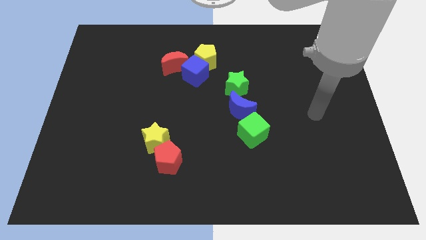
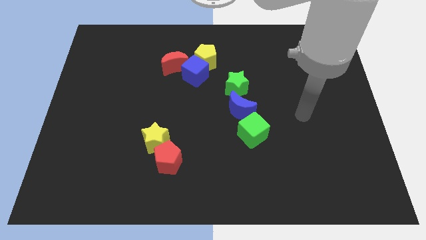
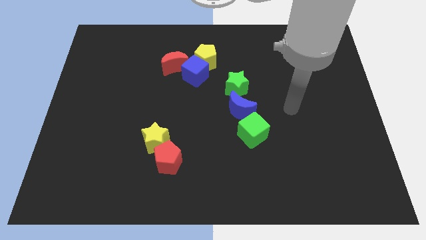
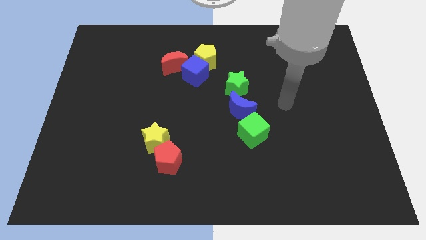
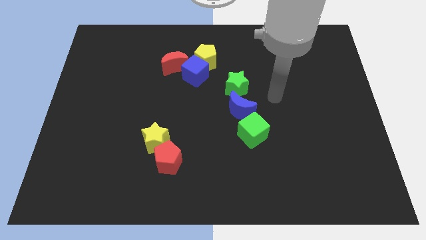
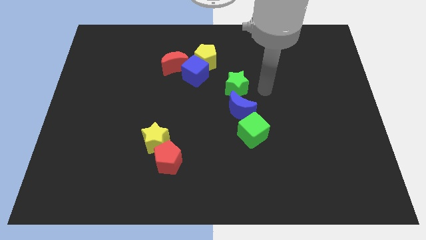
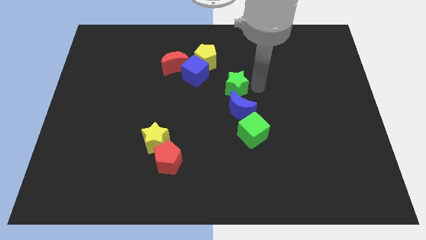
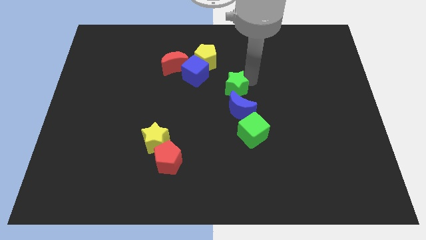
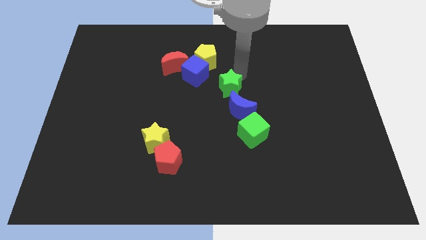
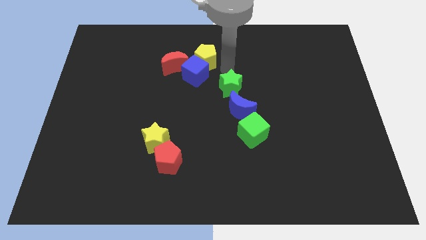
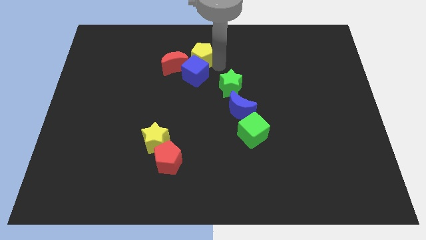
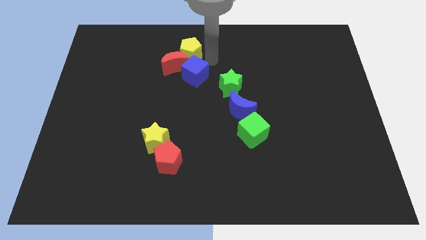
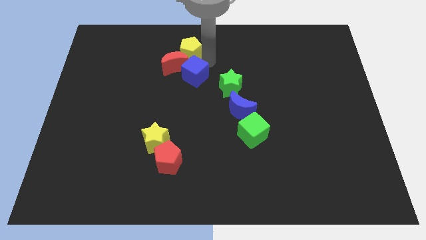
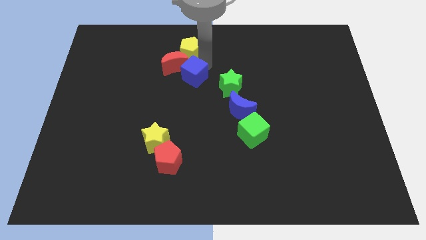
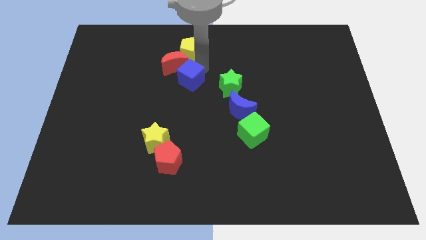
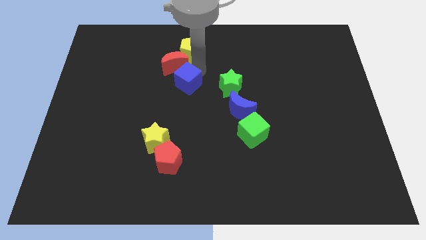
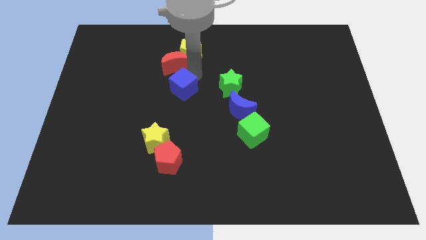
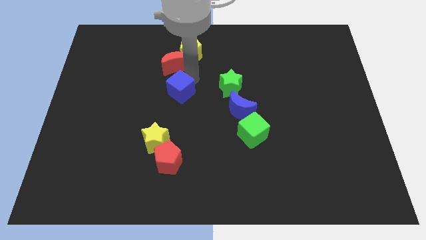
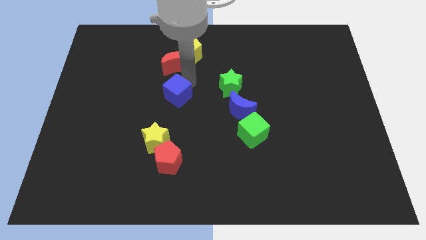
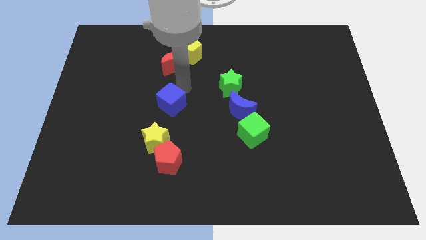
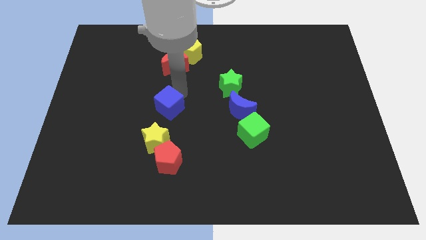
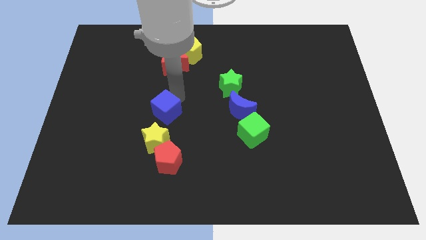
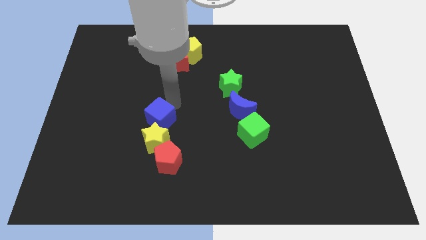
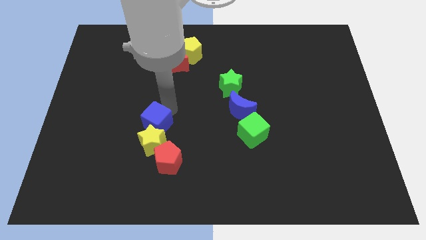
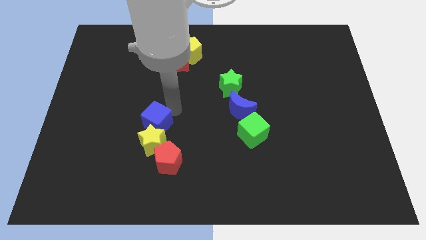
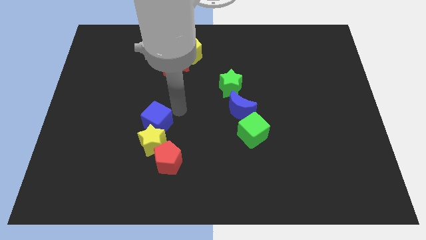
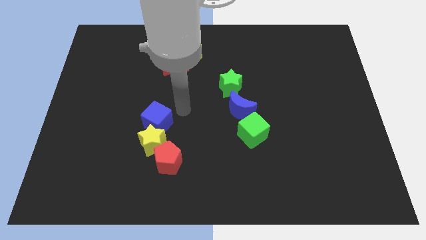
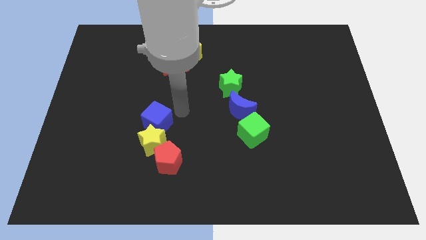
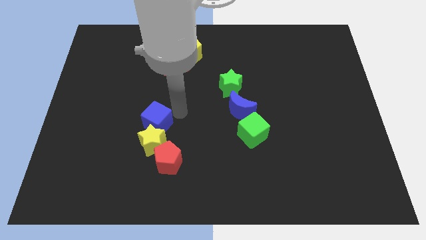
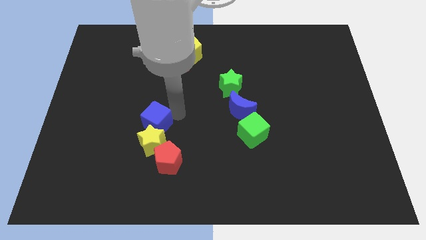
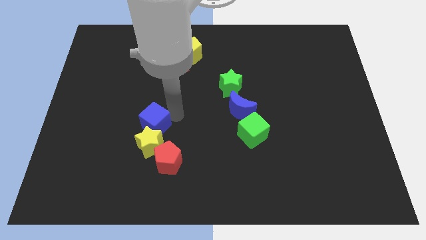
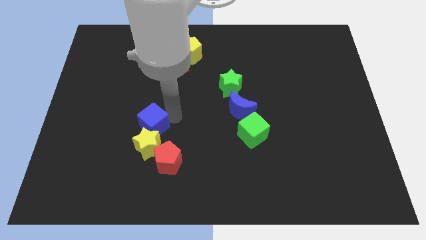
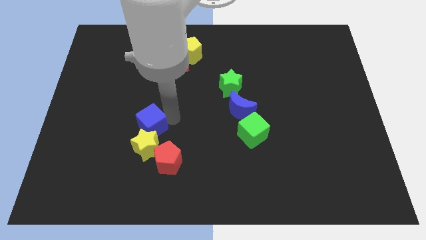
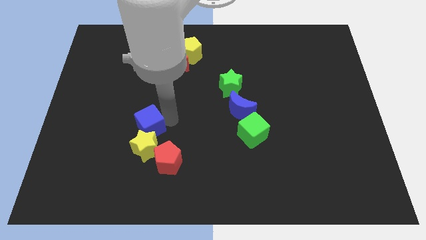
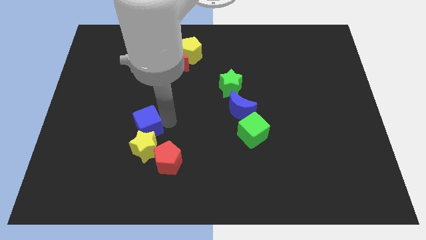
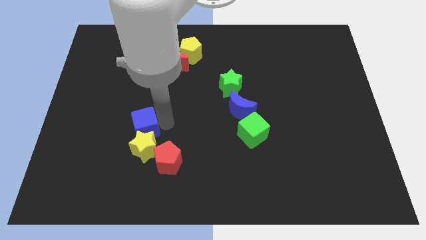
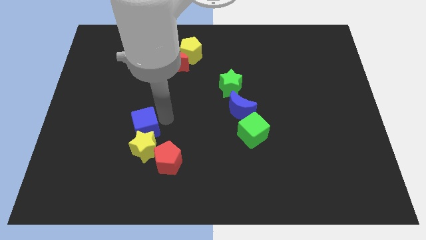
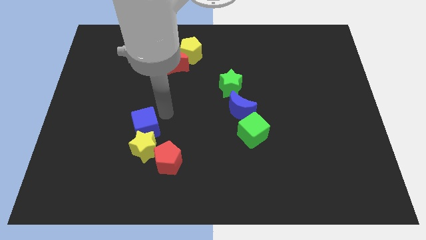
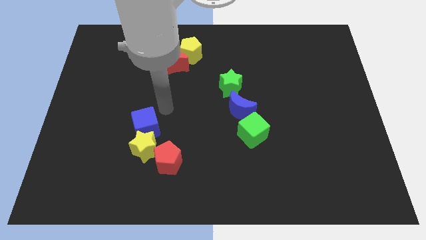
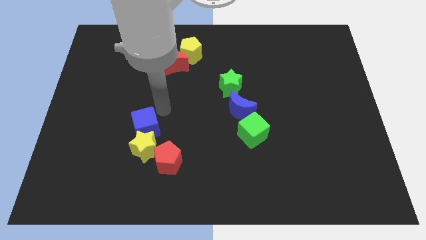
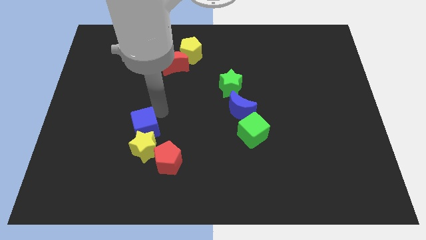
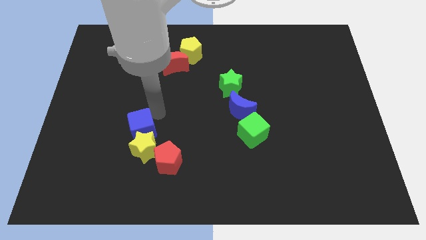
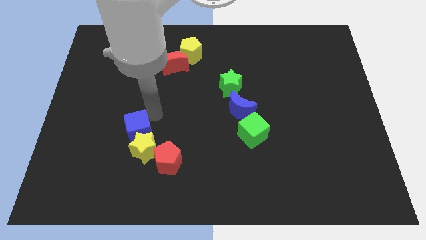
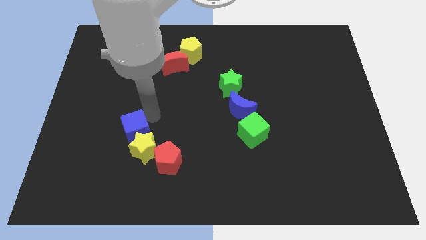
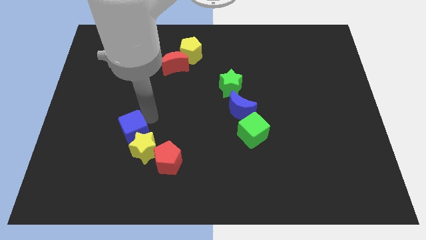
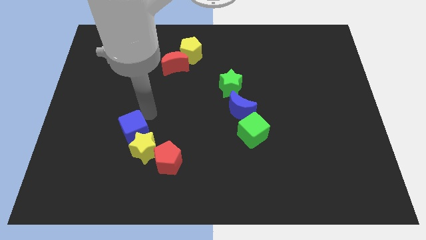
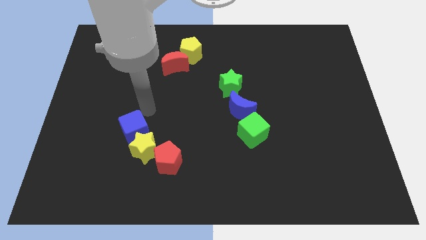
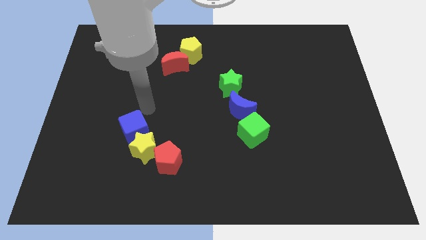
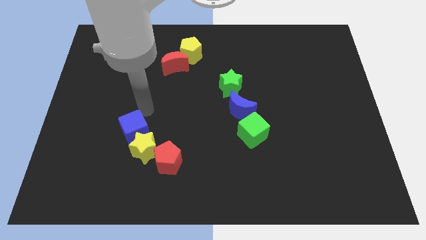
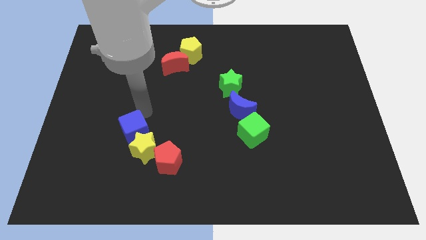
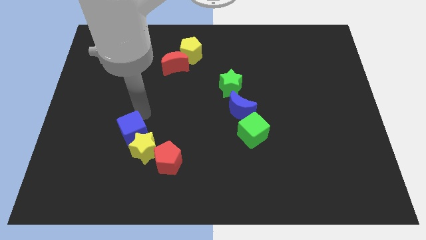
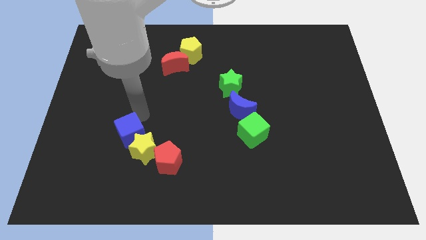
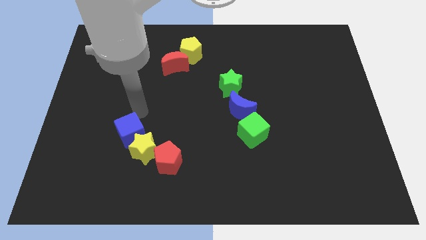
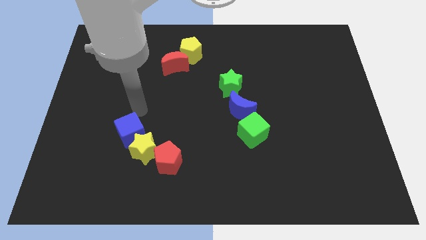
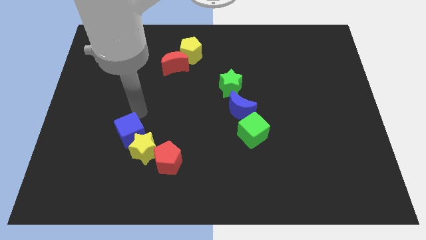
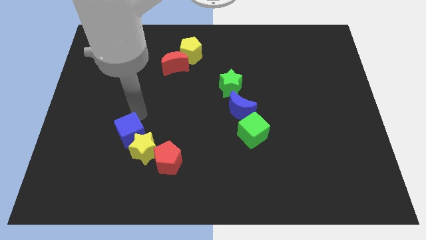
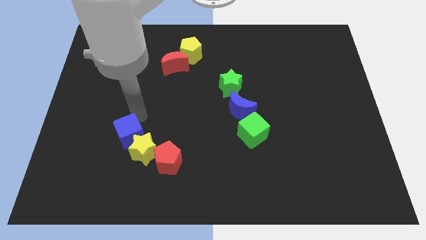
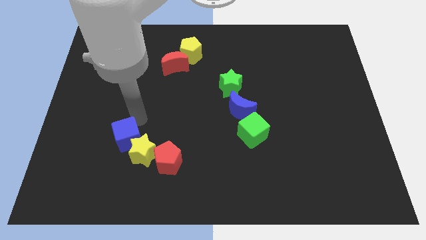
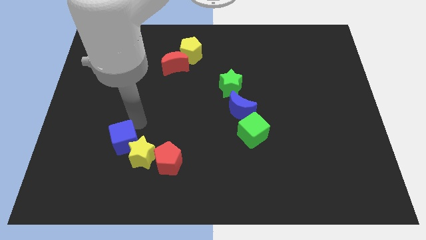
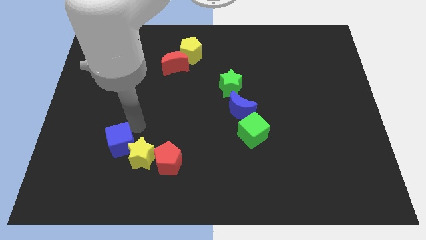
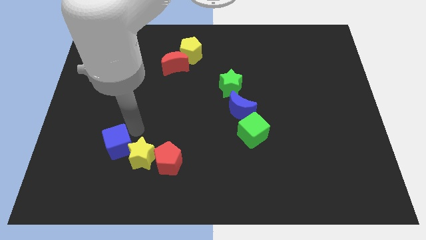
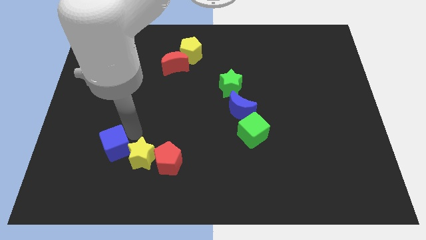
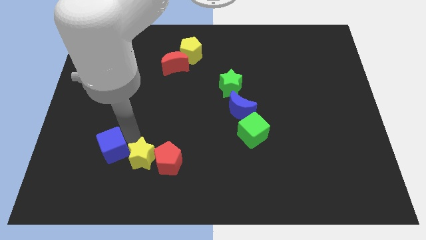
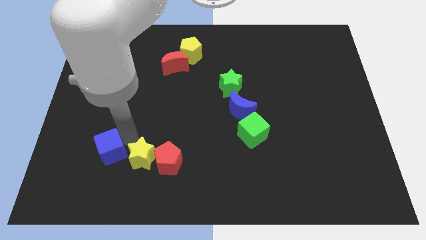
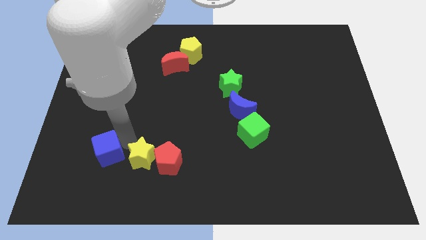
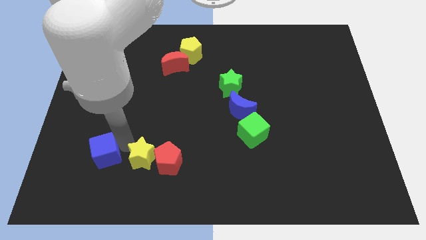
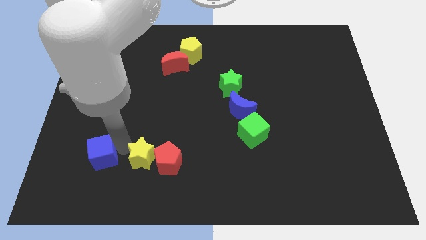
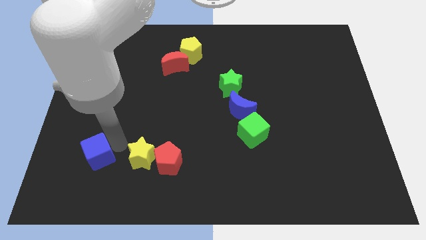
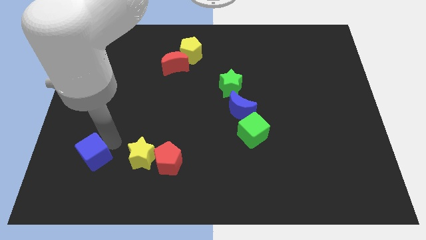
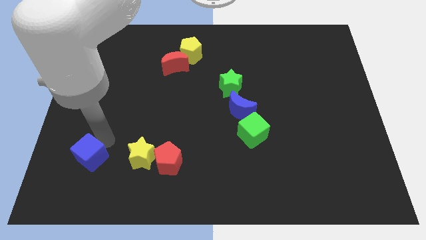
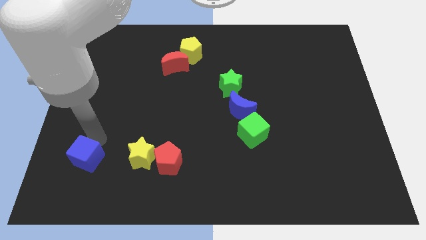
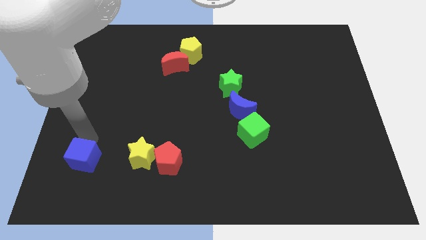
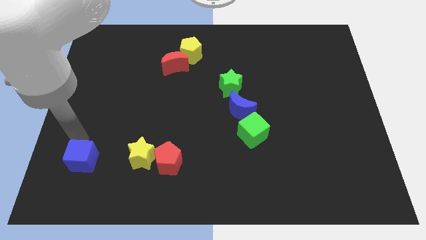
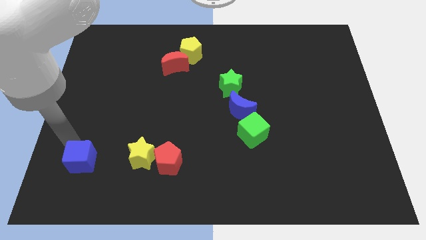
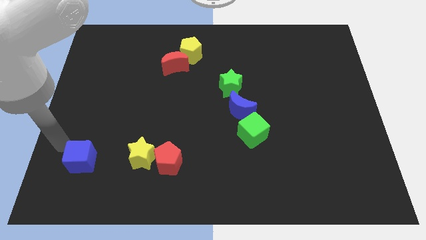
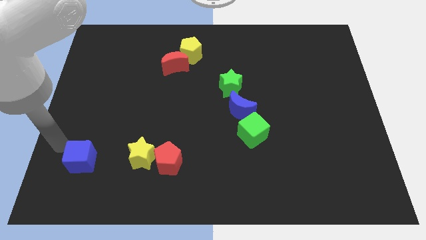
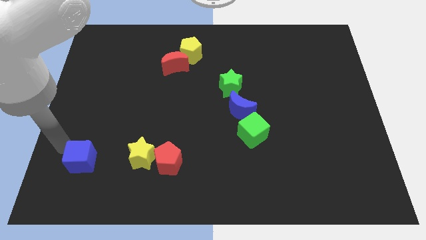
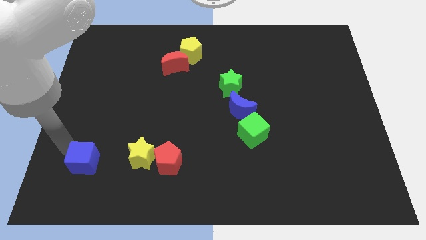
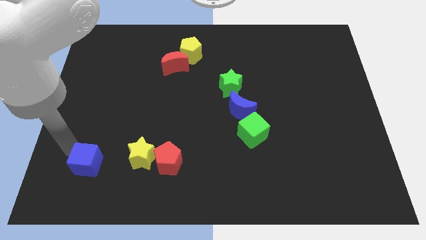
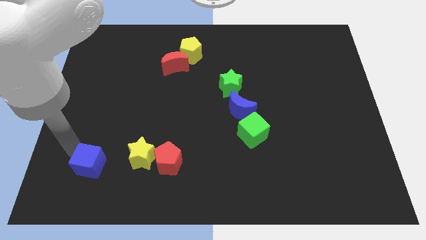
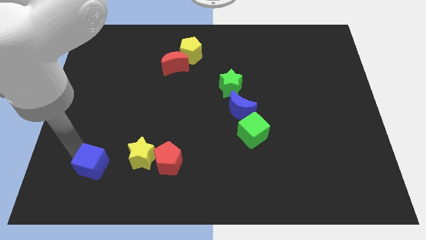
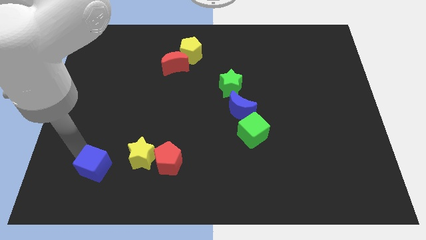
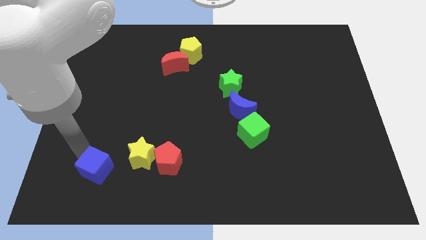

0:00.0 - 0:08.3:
push the blue cube to the bottom left side of the yellow star
